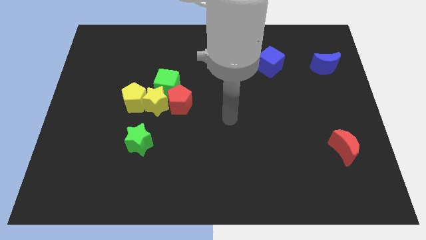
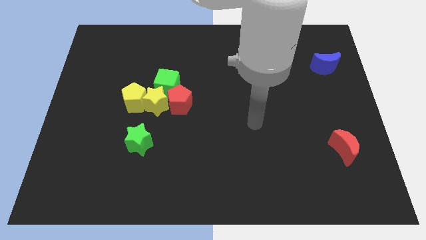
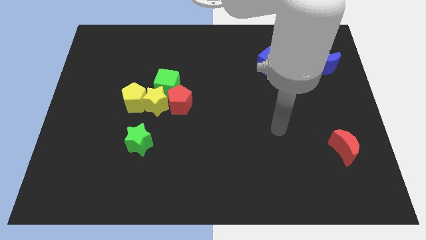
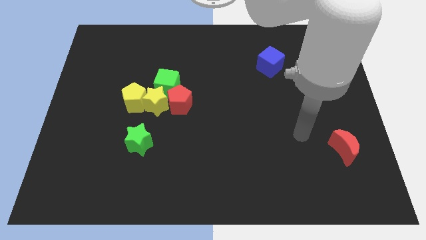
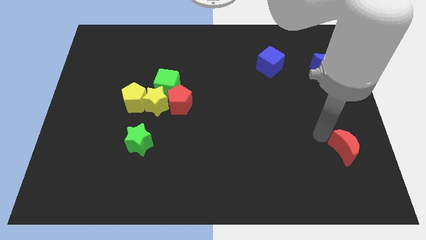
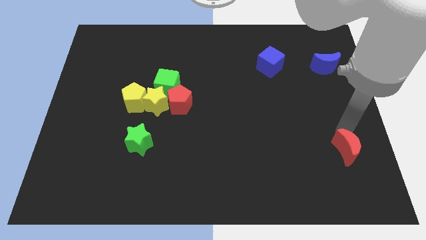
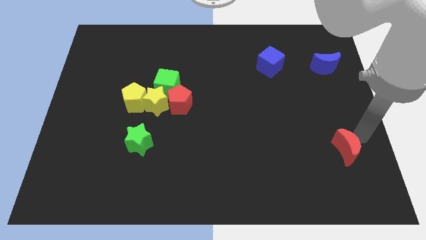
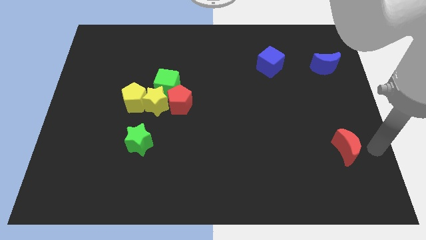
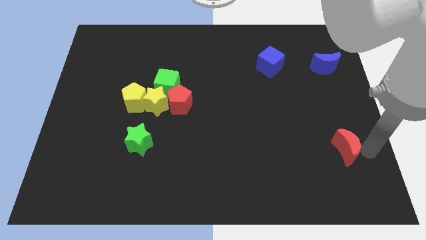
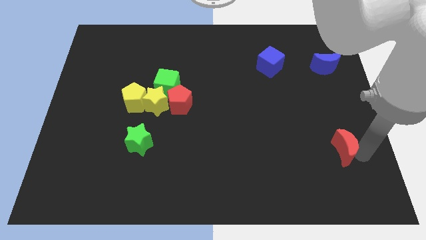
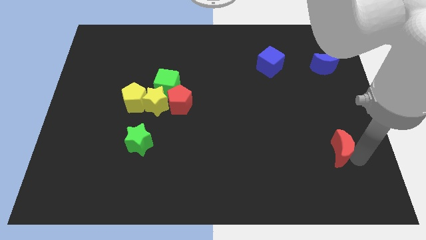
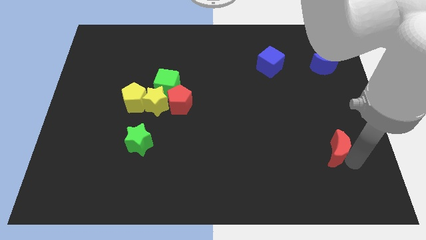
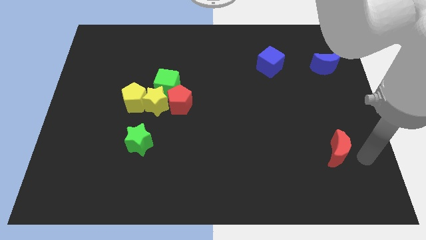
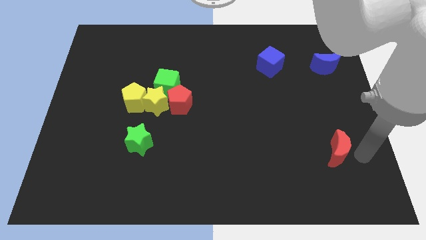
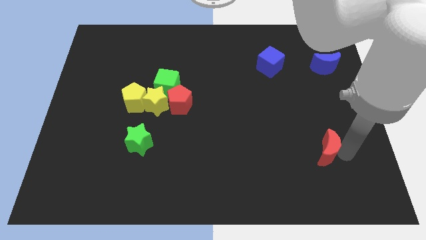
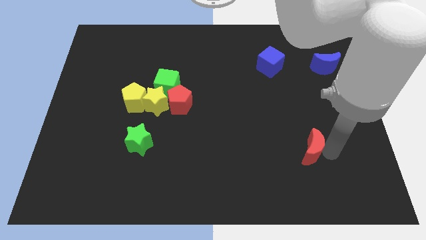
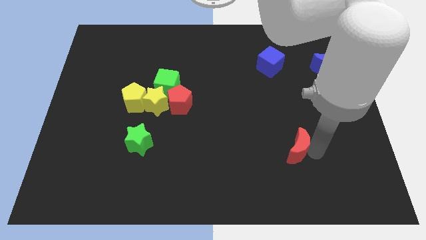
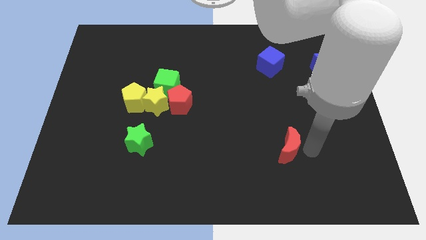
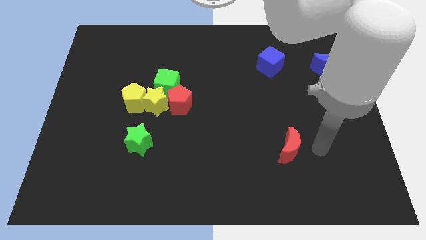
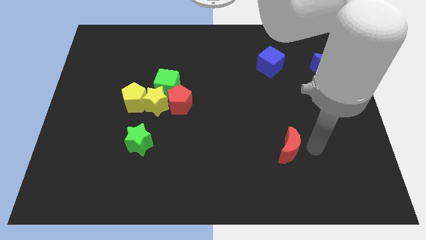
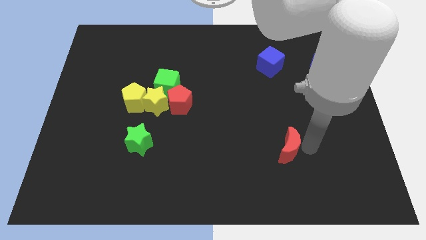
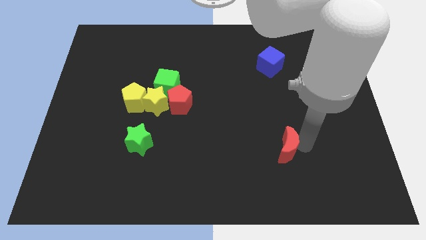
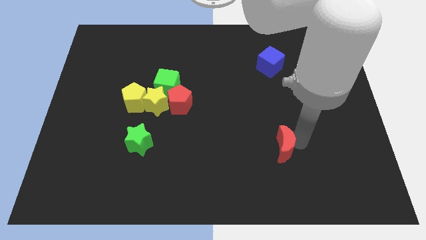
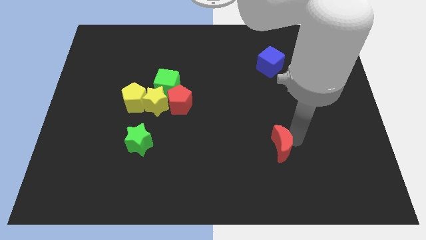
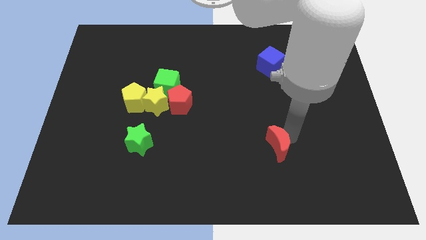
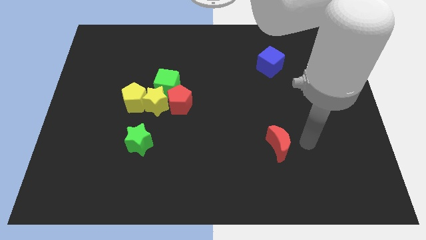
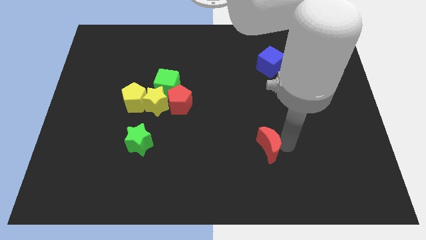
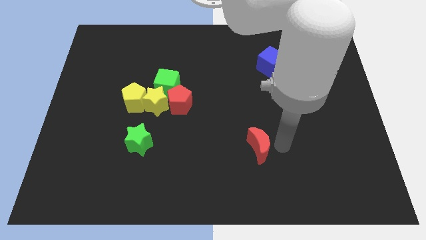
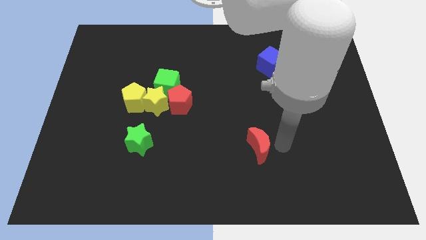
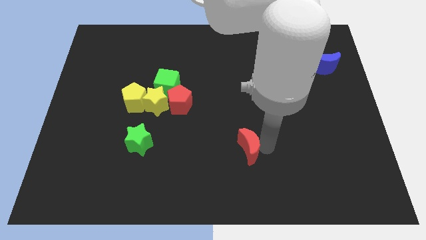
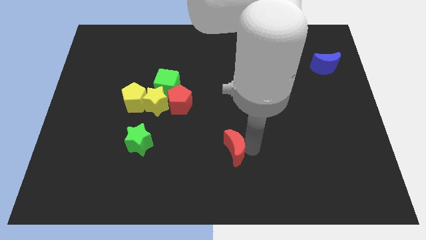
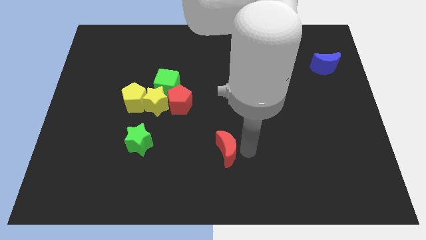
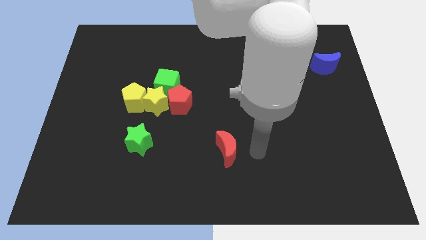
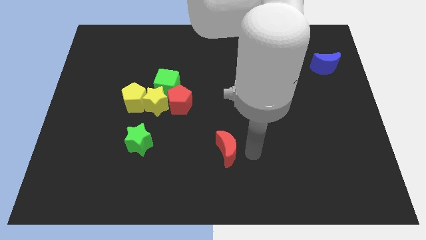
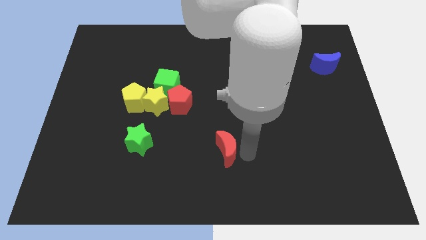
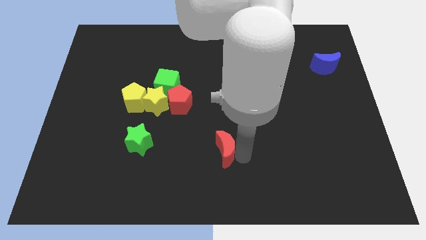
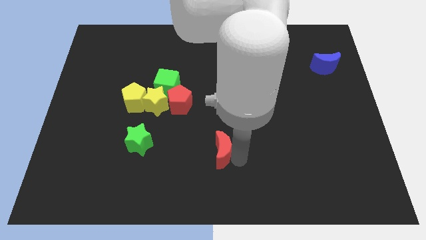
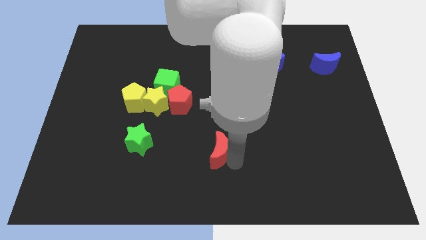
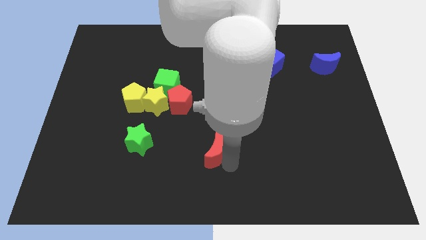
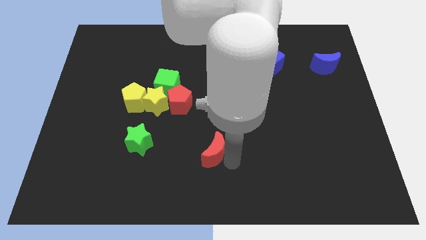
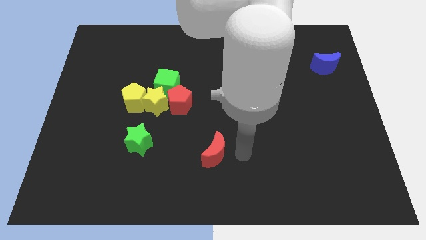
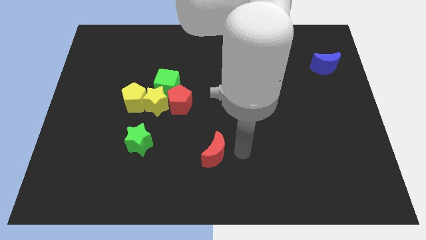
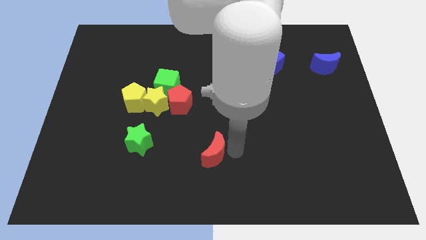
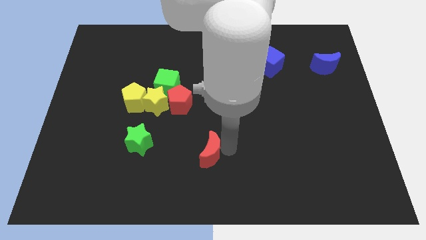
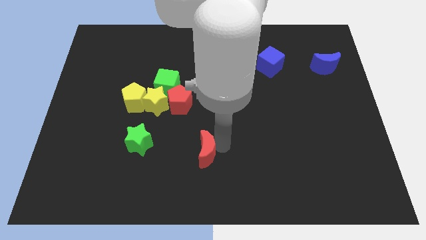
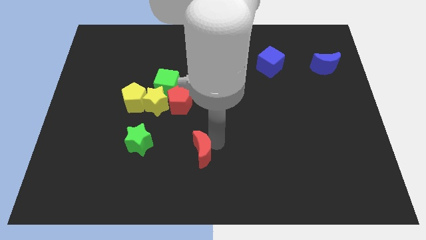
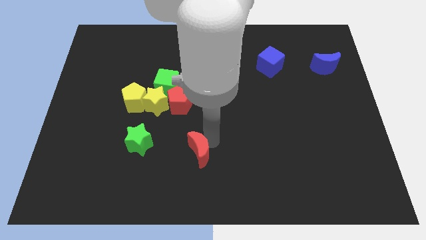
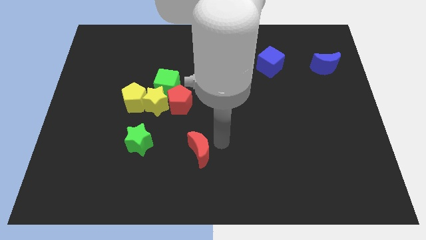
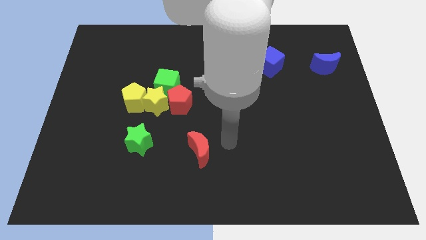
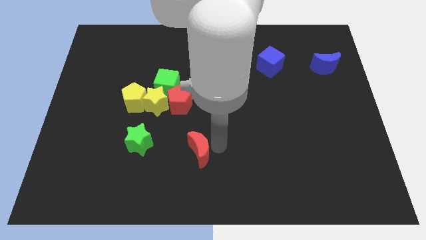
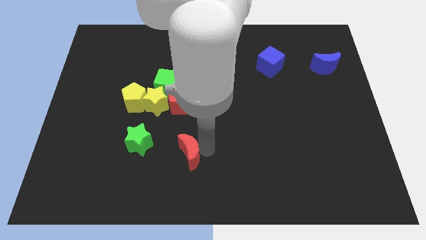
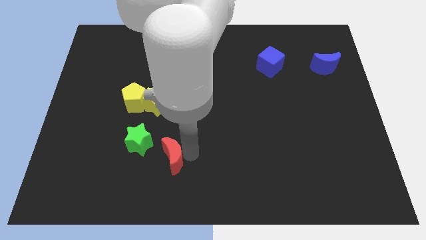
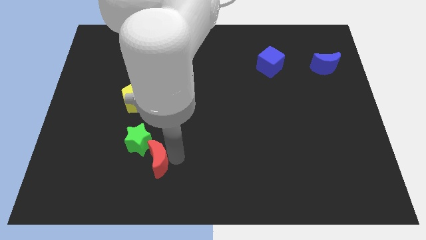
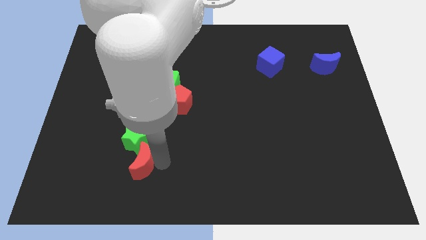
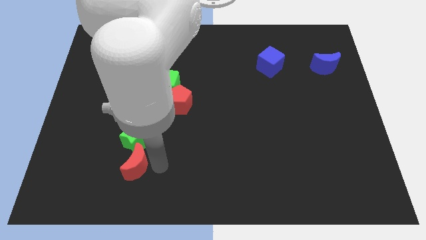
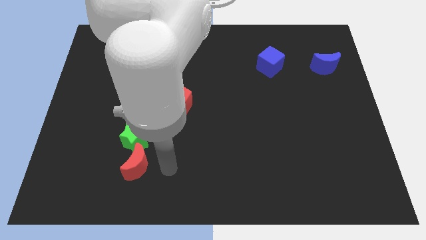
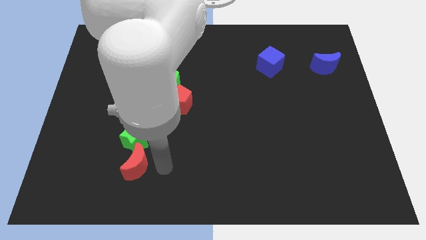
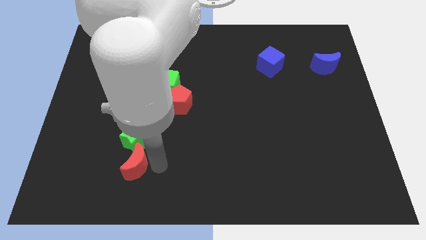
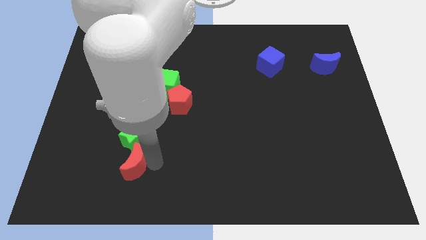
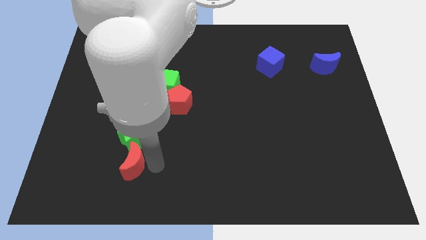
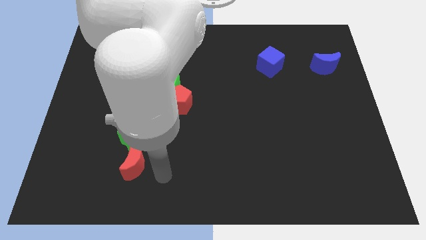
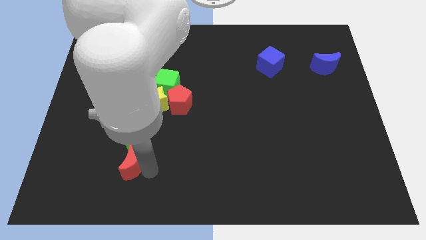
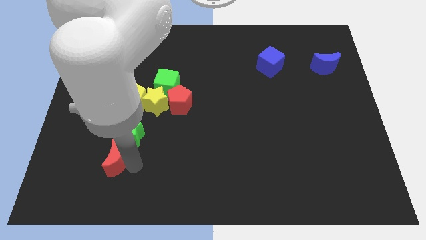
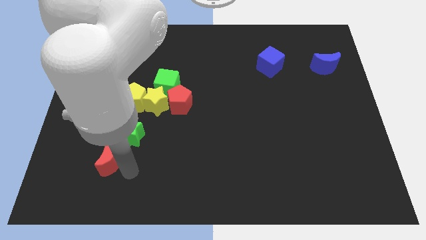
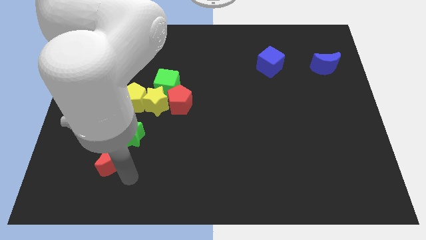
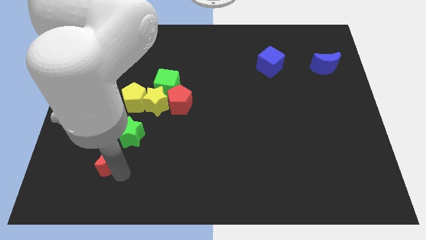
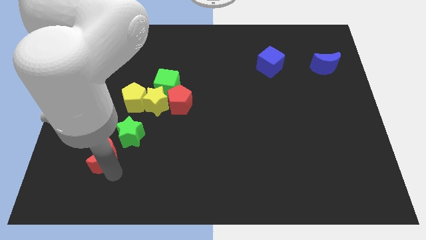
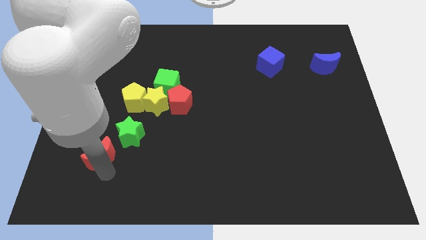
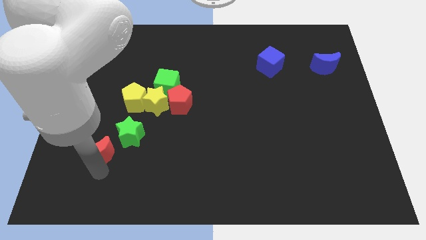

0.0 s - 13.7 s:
move the red moon to the left side of the green star
